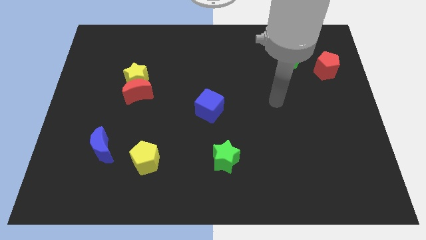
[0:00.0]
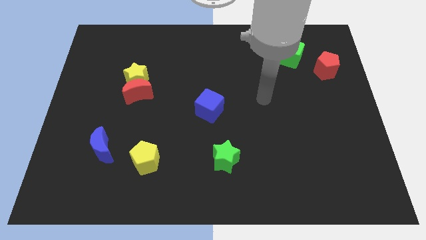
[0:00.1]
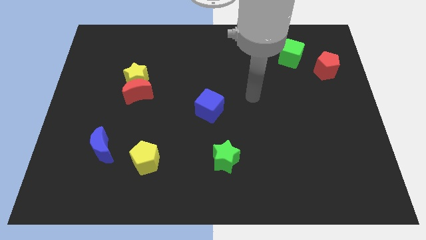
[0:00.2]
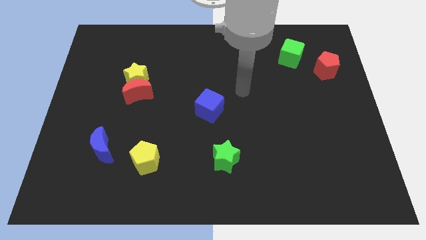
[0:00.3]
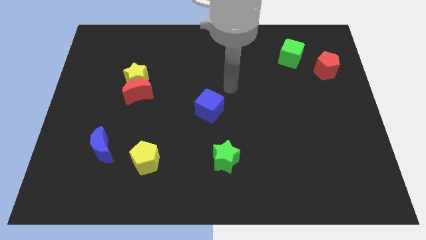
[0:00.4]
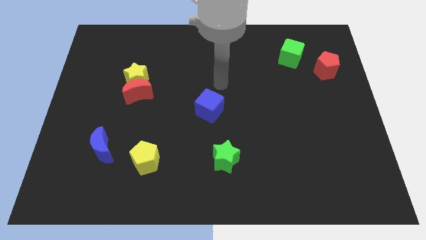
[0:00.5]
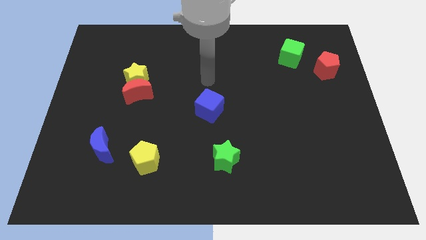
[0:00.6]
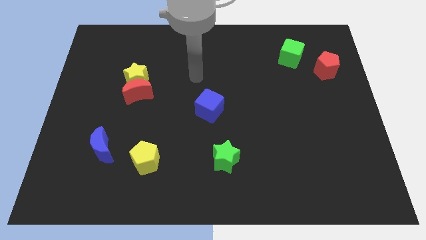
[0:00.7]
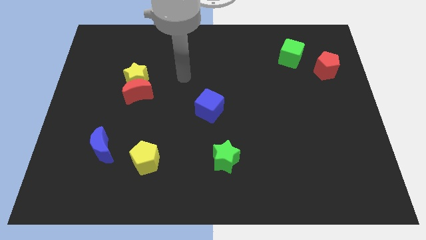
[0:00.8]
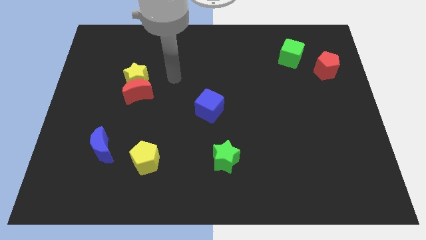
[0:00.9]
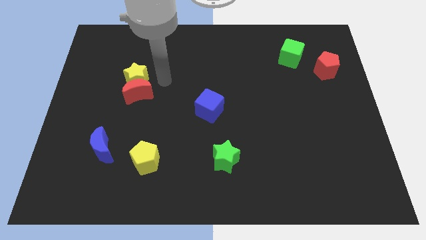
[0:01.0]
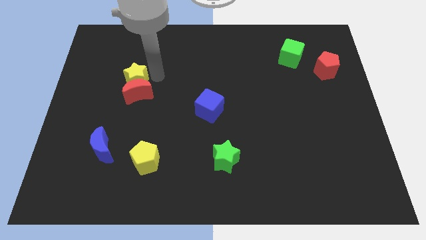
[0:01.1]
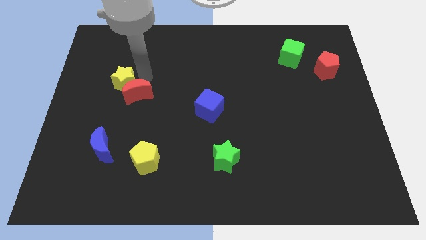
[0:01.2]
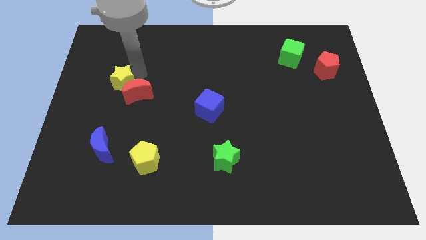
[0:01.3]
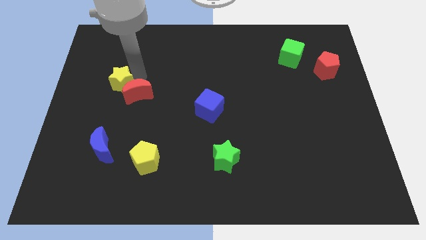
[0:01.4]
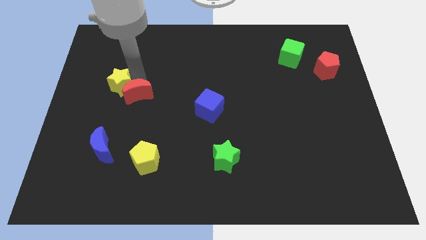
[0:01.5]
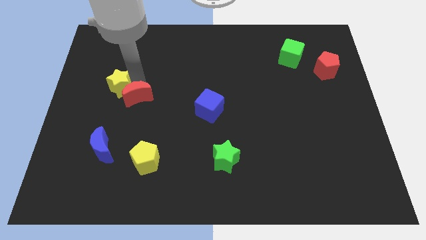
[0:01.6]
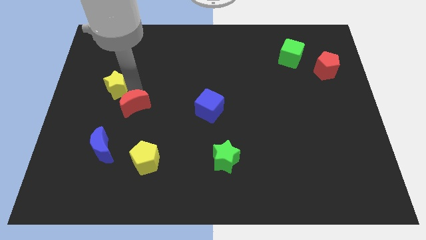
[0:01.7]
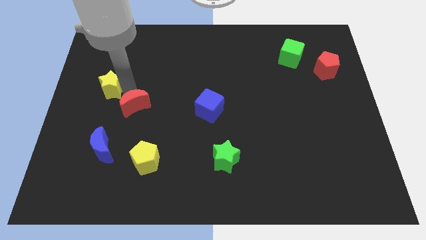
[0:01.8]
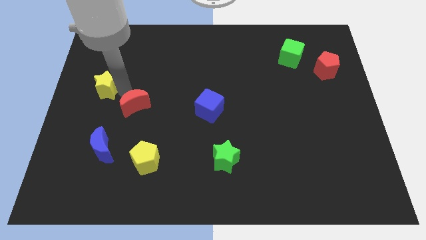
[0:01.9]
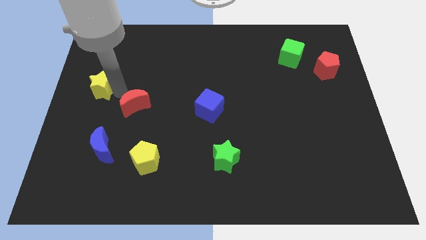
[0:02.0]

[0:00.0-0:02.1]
move the red moon away from the yellow star

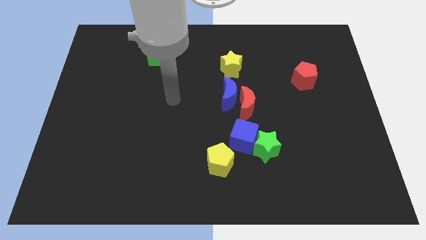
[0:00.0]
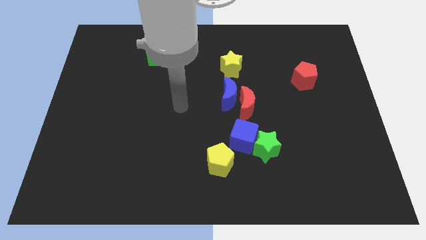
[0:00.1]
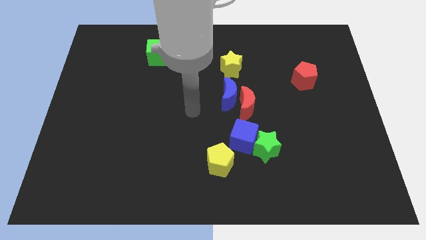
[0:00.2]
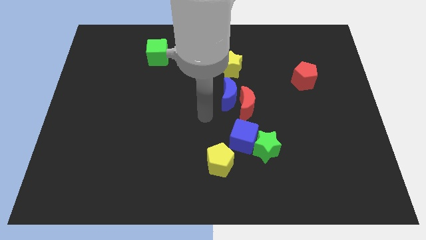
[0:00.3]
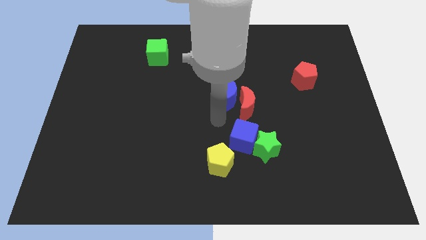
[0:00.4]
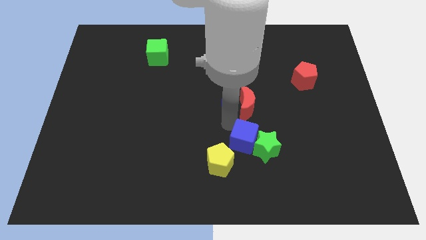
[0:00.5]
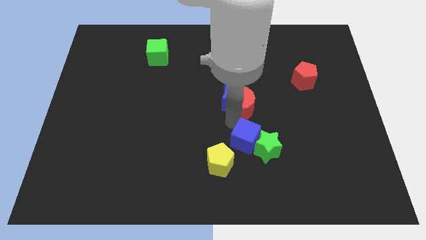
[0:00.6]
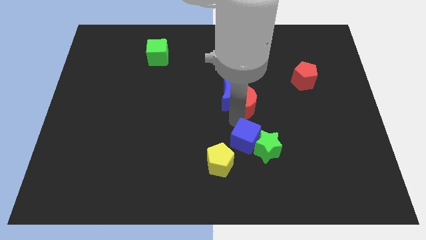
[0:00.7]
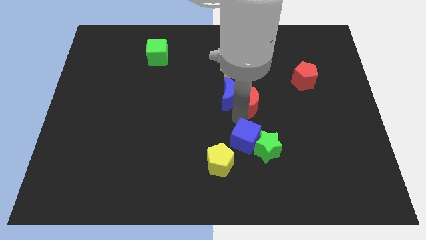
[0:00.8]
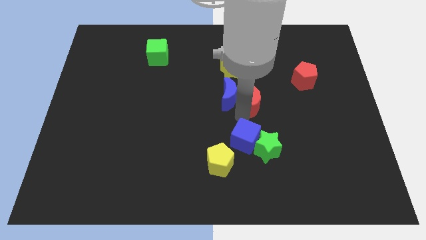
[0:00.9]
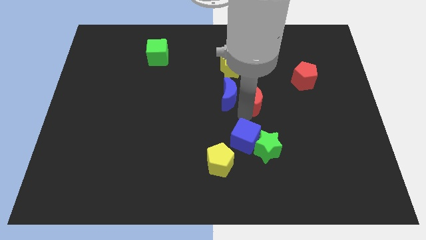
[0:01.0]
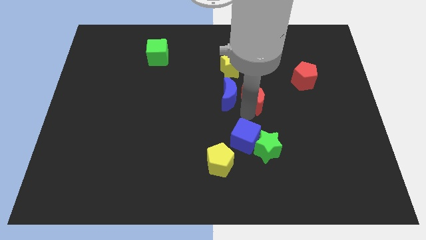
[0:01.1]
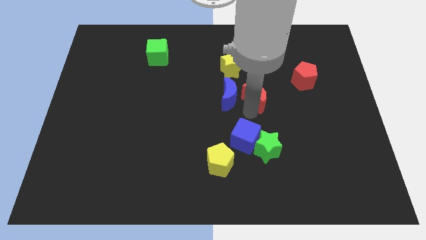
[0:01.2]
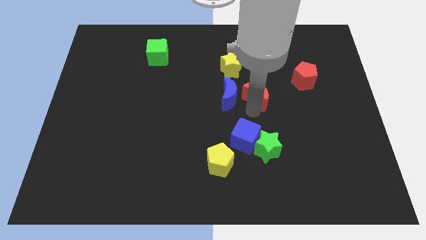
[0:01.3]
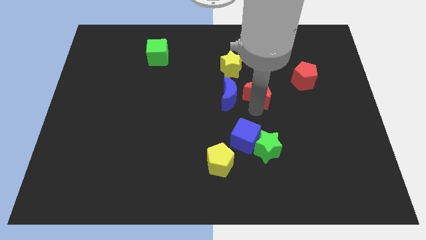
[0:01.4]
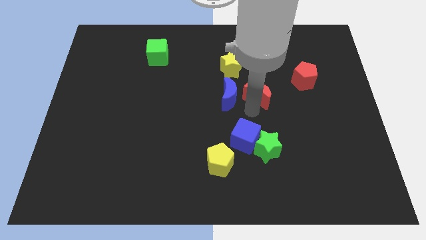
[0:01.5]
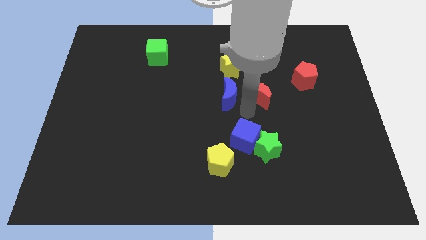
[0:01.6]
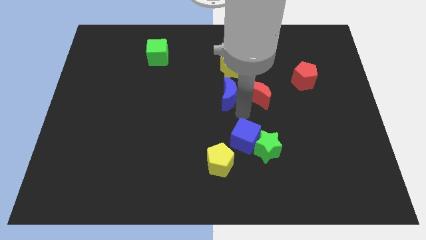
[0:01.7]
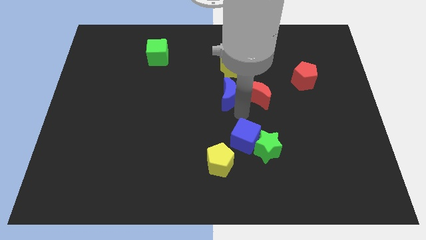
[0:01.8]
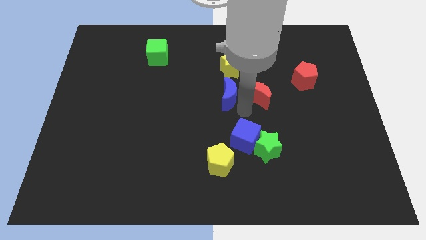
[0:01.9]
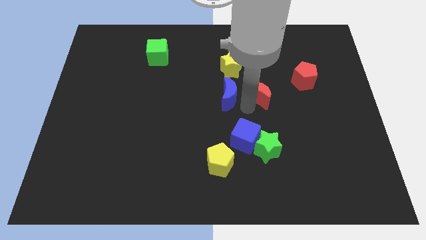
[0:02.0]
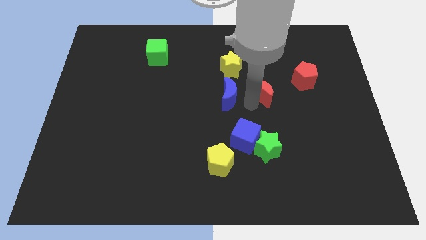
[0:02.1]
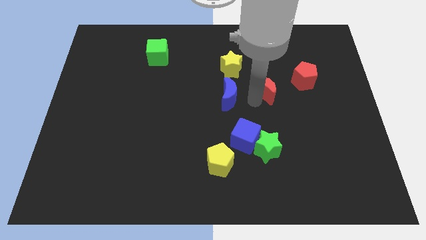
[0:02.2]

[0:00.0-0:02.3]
separate the red moon from the blue moon and blue cube

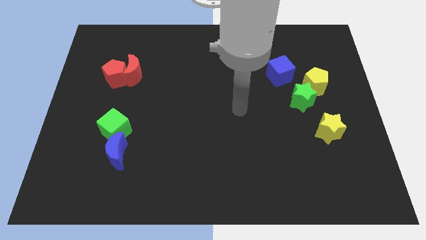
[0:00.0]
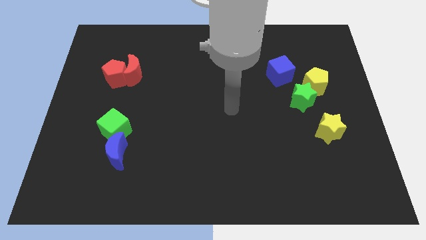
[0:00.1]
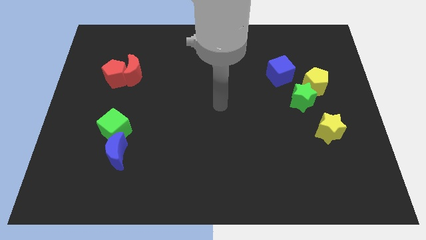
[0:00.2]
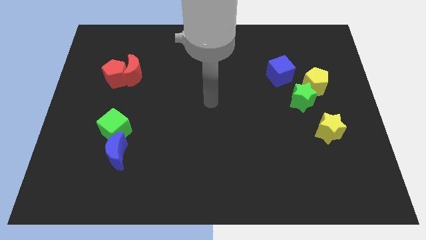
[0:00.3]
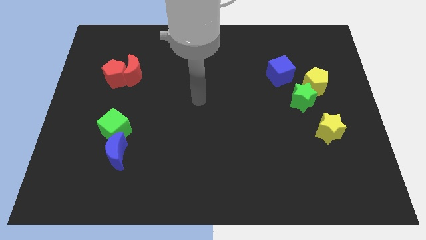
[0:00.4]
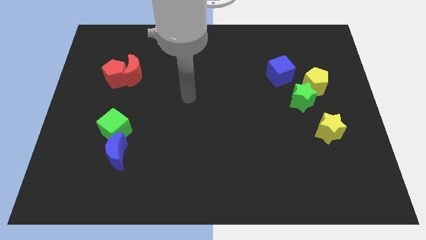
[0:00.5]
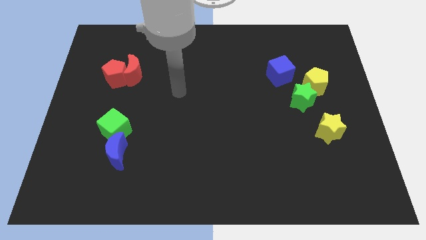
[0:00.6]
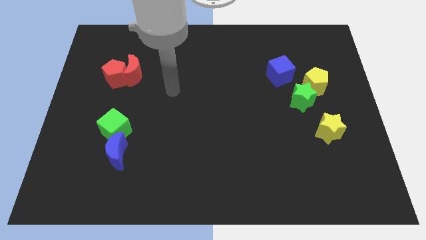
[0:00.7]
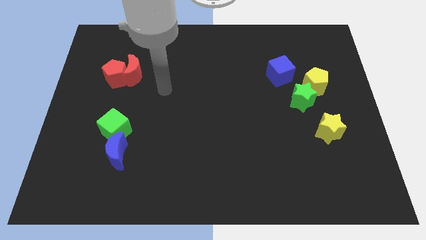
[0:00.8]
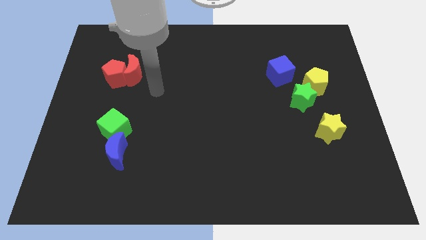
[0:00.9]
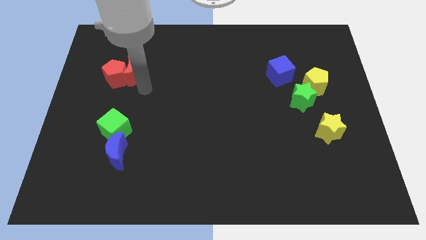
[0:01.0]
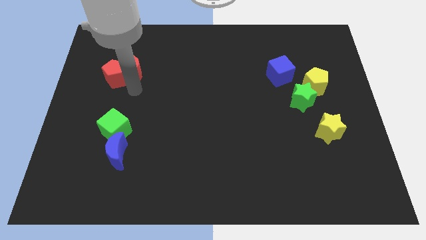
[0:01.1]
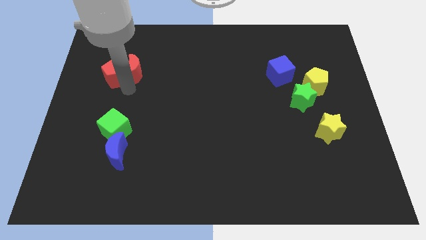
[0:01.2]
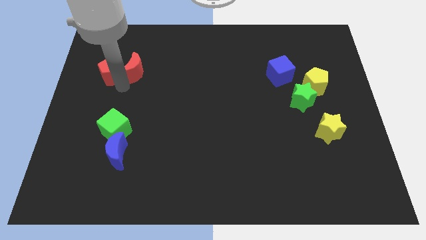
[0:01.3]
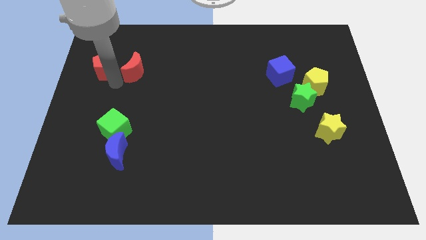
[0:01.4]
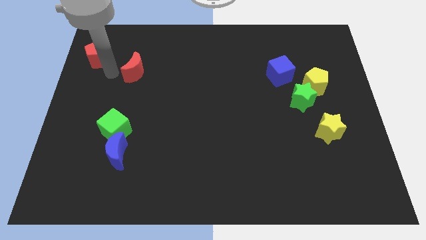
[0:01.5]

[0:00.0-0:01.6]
pull the red moon apart from the red pentagon

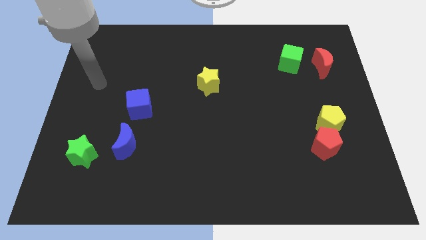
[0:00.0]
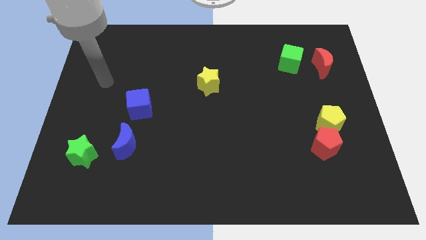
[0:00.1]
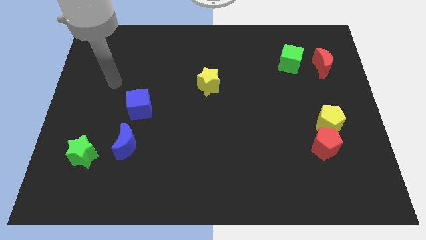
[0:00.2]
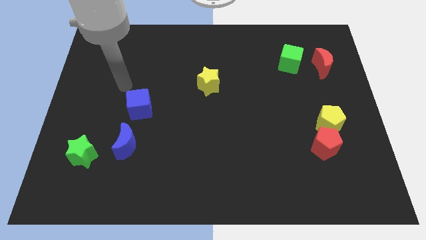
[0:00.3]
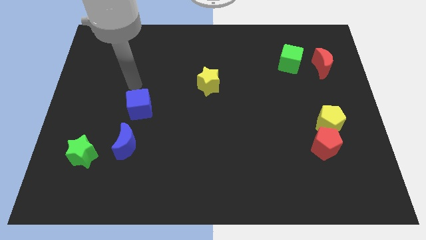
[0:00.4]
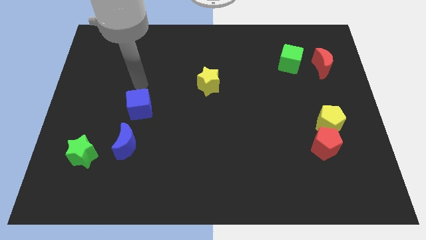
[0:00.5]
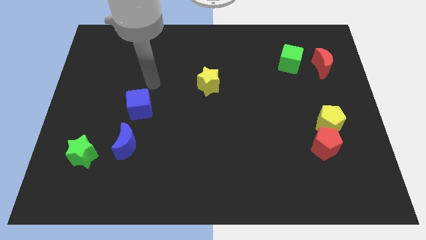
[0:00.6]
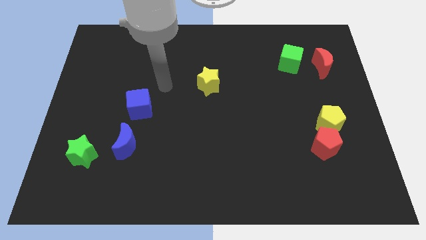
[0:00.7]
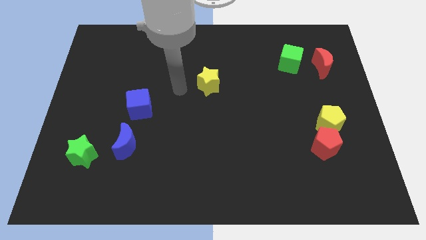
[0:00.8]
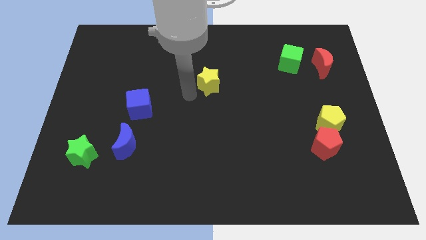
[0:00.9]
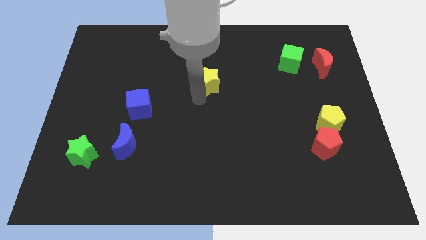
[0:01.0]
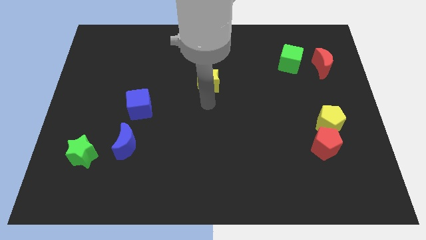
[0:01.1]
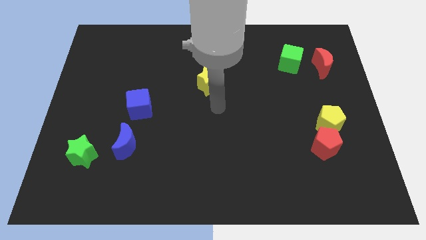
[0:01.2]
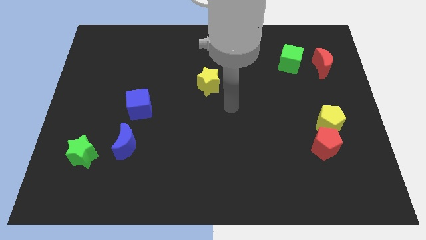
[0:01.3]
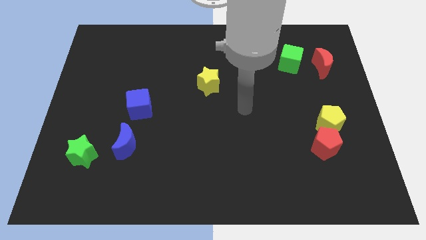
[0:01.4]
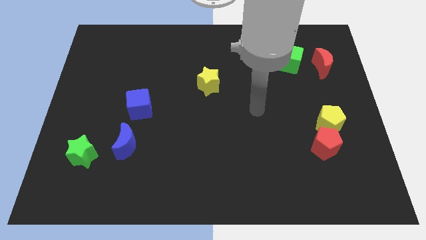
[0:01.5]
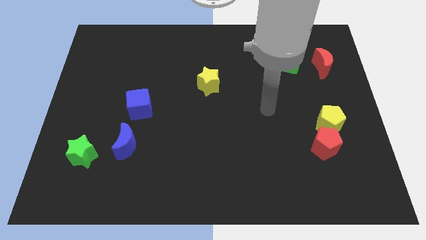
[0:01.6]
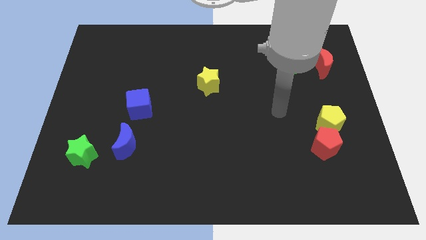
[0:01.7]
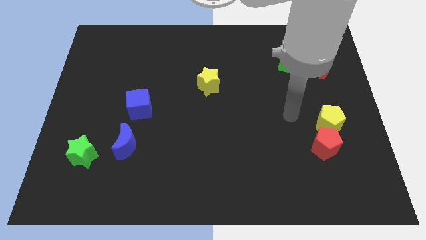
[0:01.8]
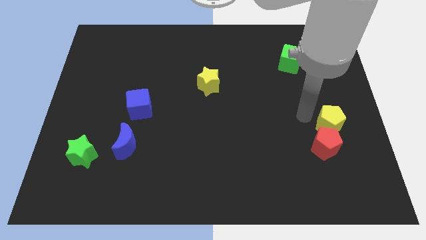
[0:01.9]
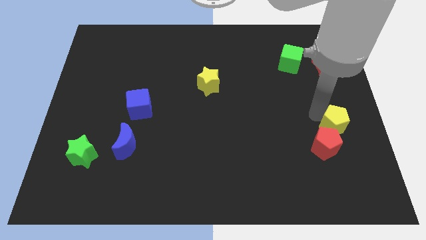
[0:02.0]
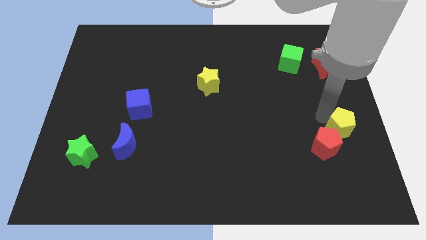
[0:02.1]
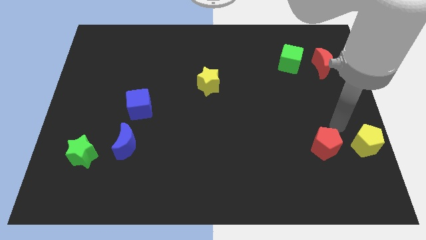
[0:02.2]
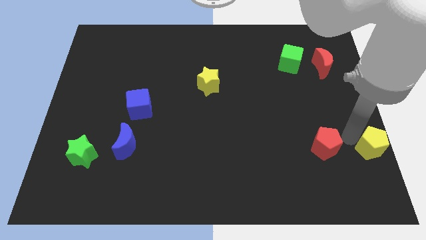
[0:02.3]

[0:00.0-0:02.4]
separate the red pentagon from the yellow pentagon

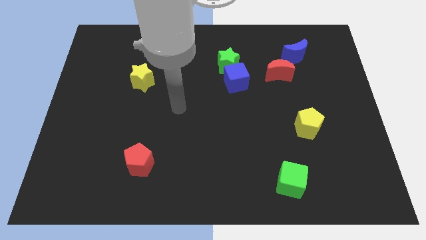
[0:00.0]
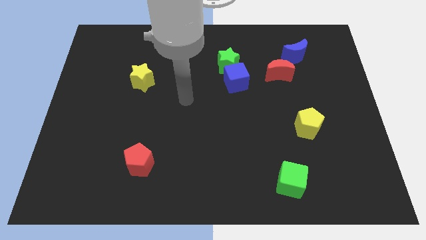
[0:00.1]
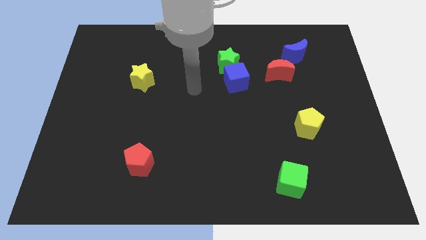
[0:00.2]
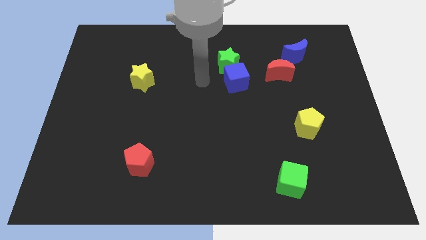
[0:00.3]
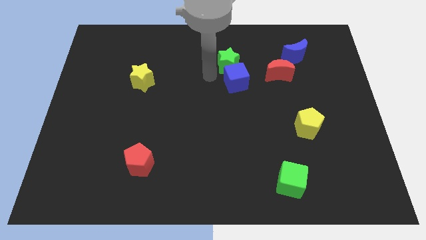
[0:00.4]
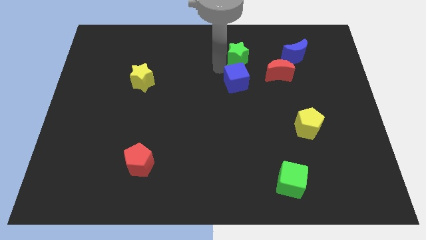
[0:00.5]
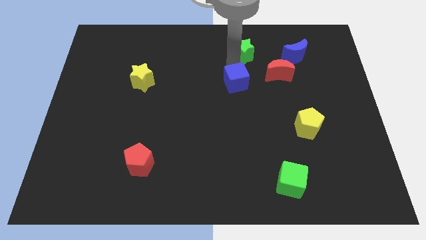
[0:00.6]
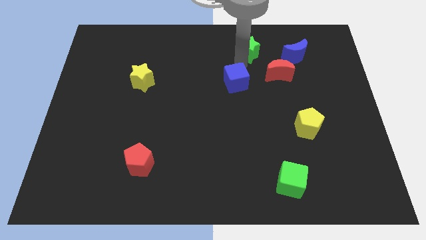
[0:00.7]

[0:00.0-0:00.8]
separate the blue cube from the green star
